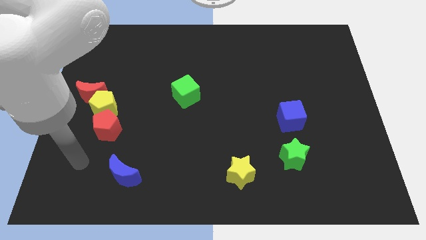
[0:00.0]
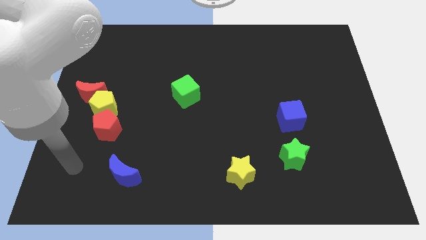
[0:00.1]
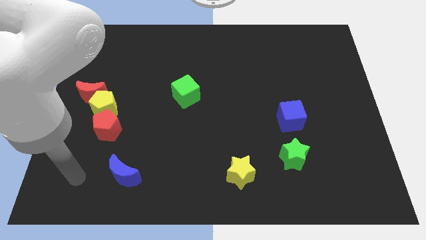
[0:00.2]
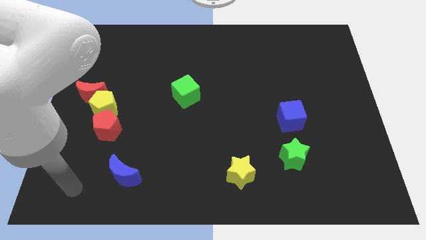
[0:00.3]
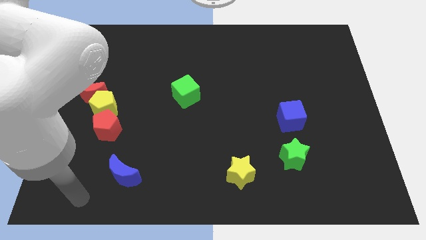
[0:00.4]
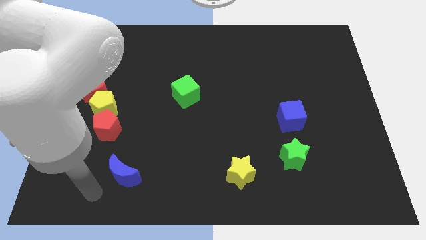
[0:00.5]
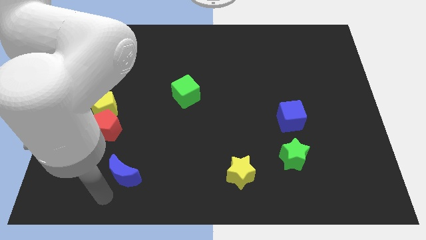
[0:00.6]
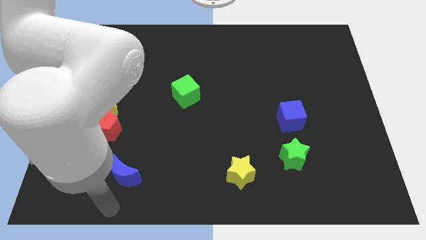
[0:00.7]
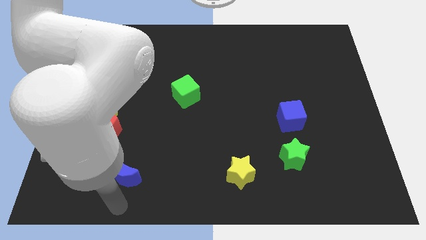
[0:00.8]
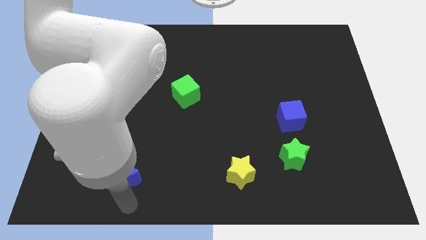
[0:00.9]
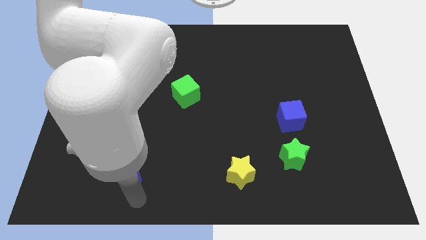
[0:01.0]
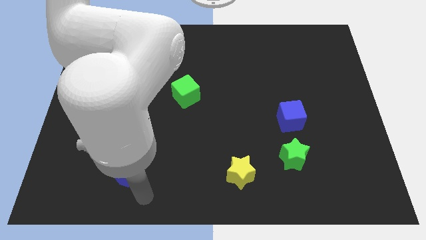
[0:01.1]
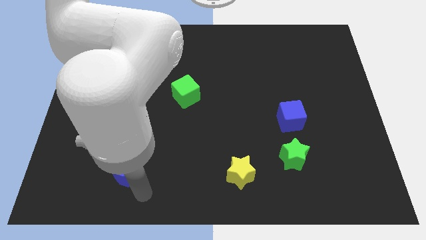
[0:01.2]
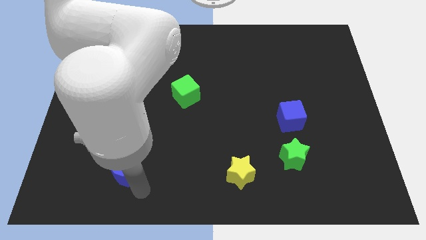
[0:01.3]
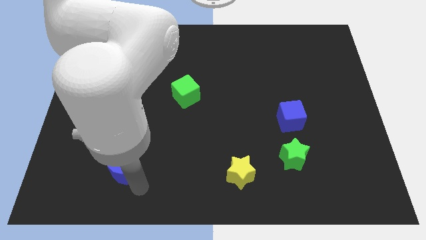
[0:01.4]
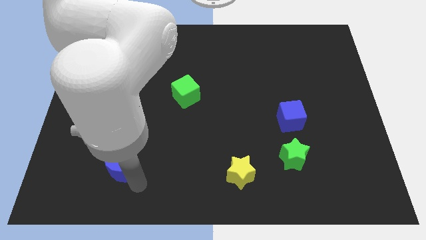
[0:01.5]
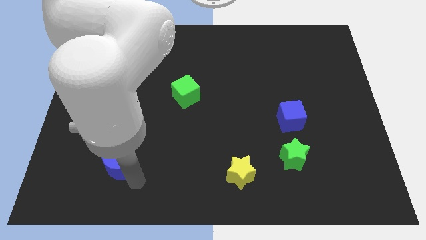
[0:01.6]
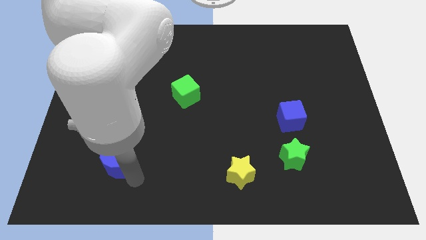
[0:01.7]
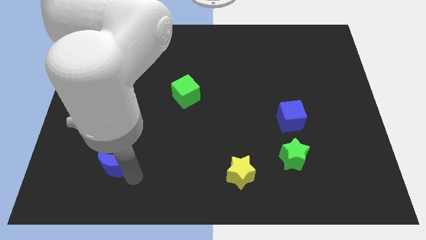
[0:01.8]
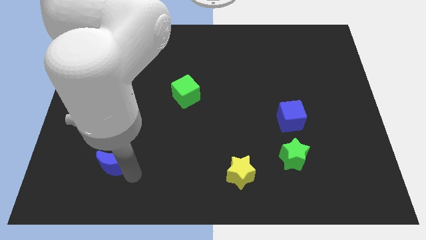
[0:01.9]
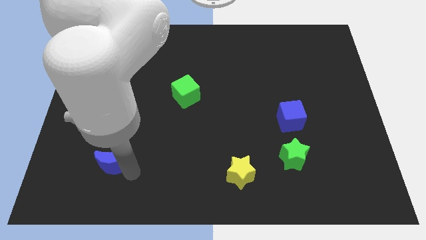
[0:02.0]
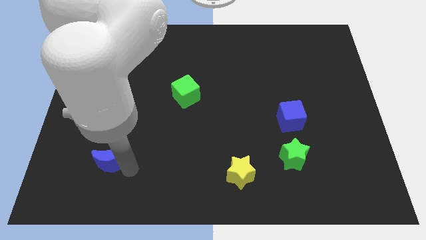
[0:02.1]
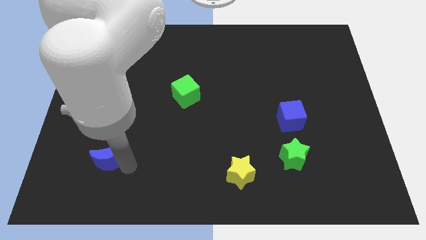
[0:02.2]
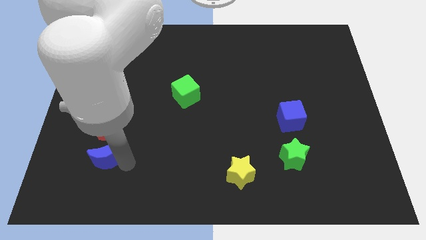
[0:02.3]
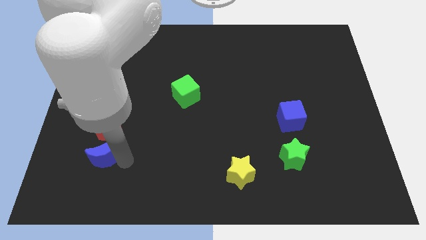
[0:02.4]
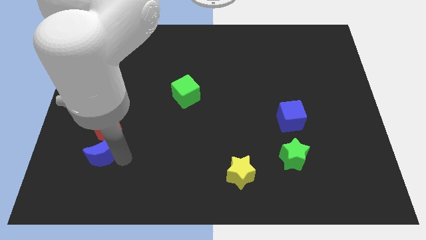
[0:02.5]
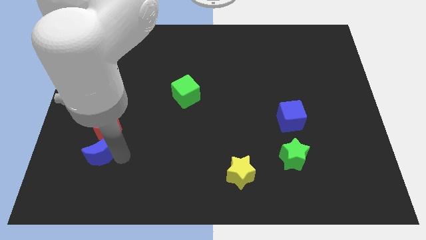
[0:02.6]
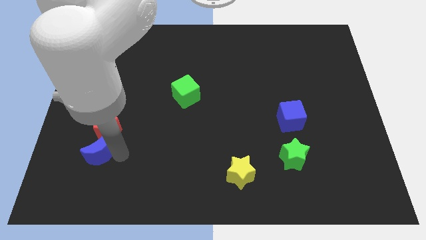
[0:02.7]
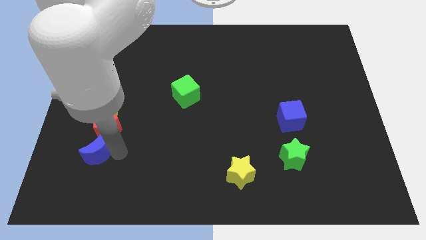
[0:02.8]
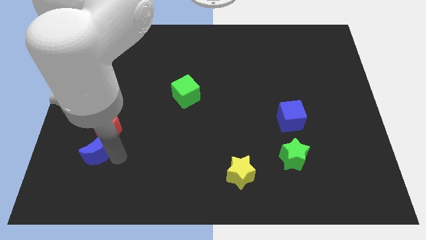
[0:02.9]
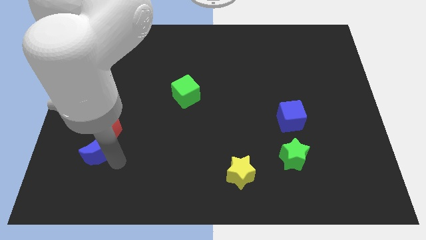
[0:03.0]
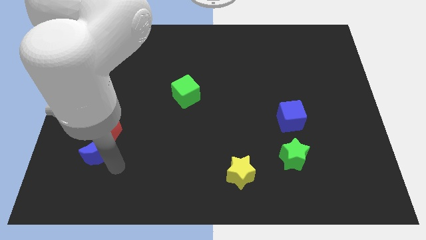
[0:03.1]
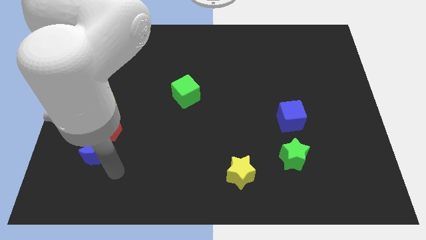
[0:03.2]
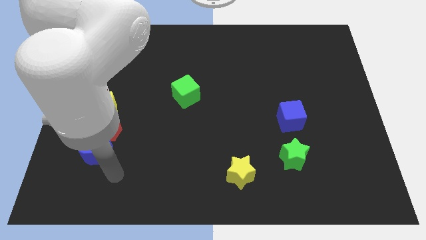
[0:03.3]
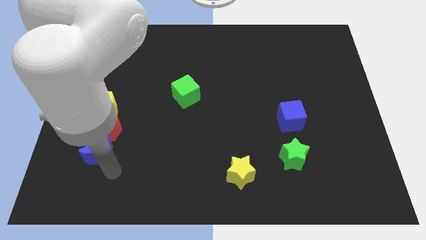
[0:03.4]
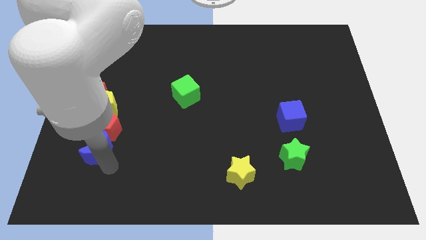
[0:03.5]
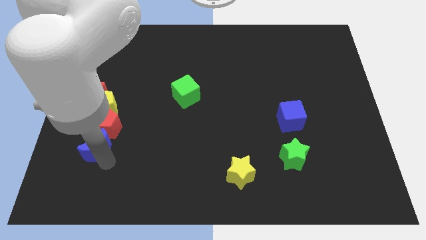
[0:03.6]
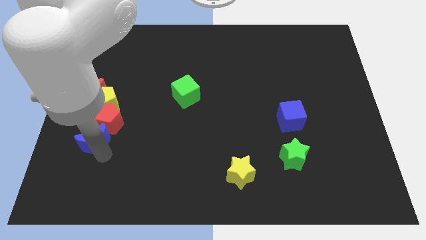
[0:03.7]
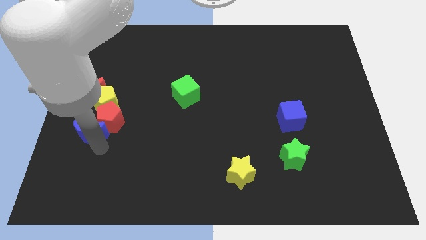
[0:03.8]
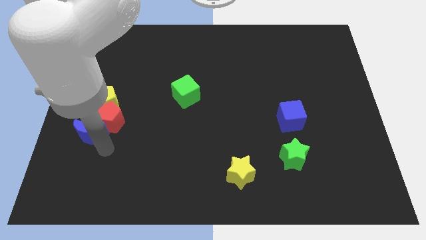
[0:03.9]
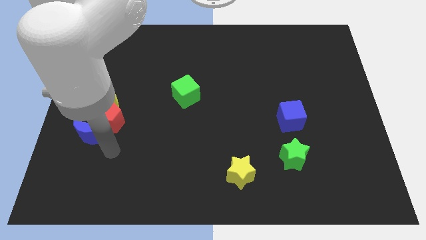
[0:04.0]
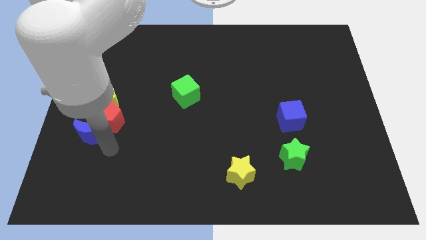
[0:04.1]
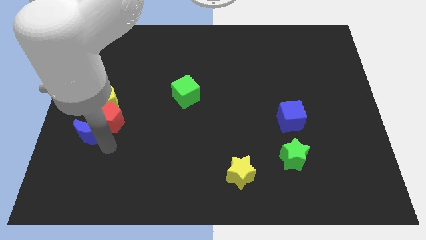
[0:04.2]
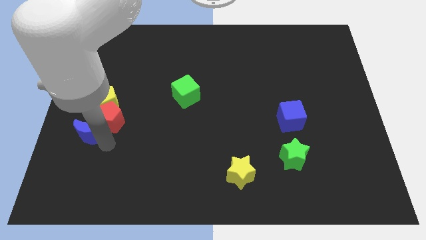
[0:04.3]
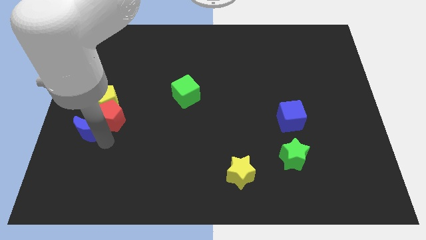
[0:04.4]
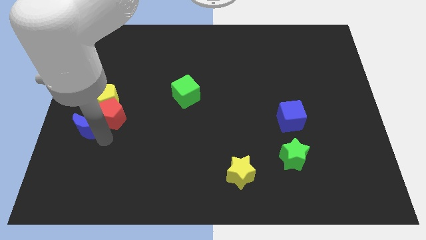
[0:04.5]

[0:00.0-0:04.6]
slide the blue moon to the left side of the board

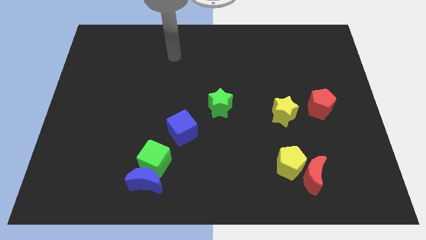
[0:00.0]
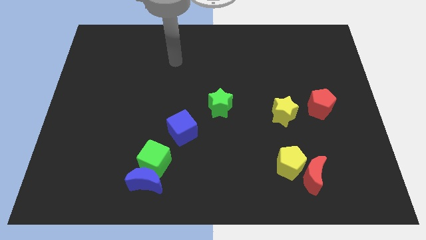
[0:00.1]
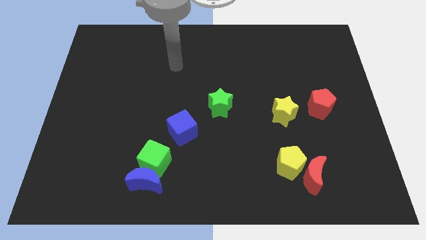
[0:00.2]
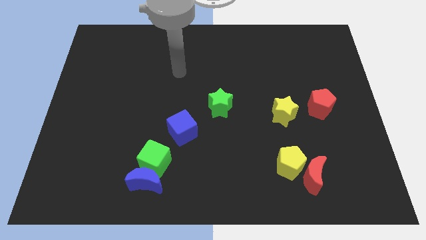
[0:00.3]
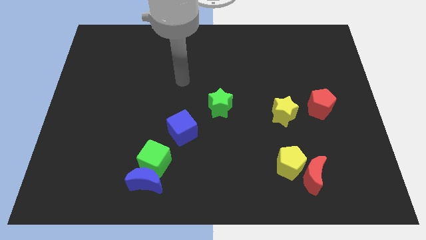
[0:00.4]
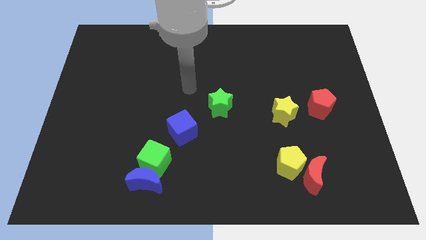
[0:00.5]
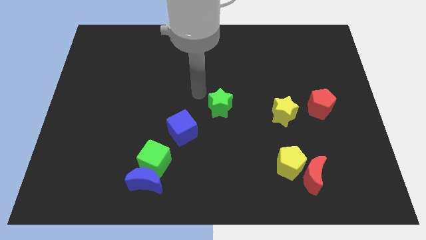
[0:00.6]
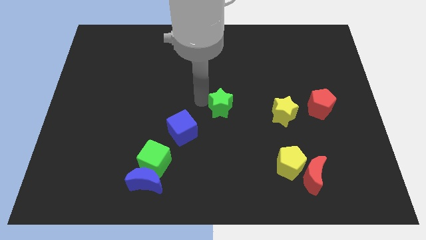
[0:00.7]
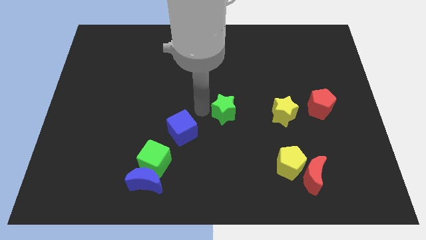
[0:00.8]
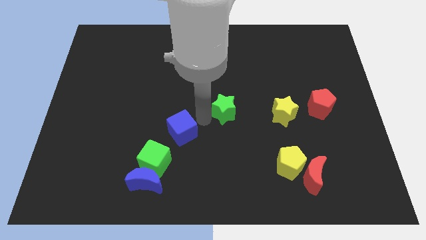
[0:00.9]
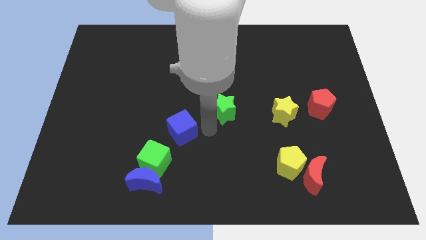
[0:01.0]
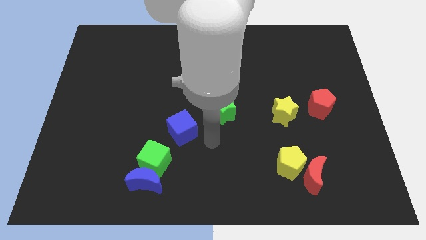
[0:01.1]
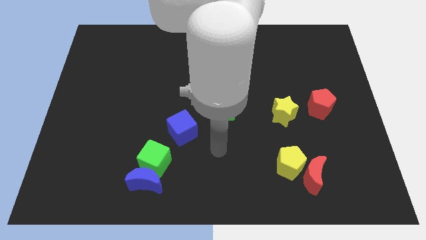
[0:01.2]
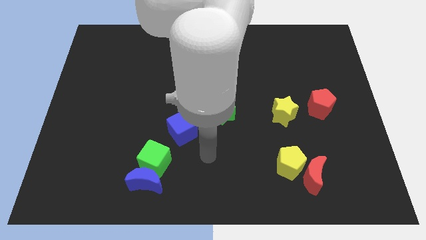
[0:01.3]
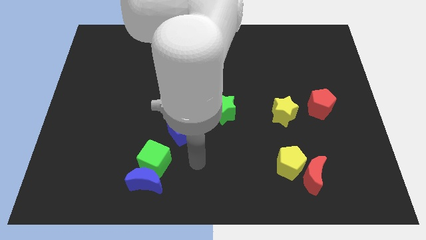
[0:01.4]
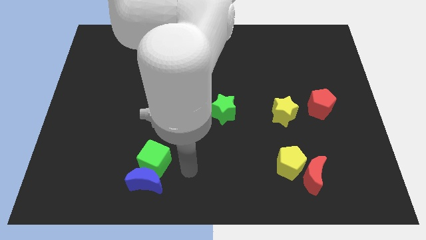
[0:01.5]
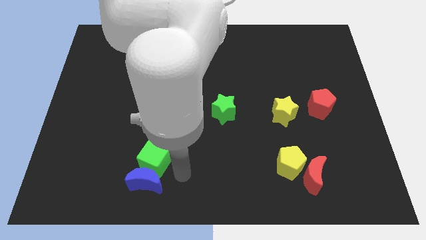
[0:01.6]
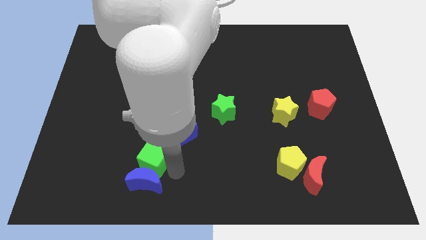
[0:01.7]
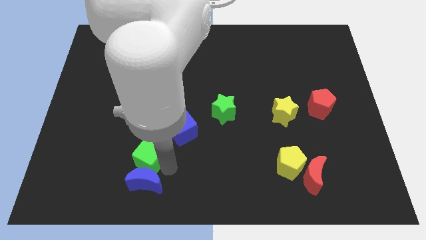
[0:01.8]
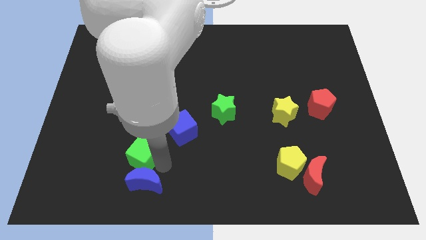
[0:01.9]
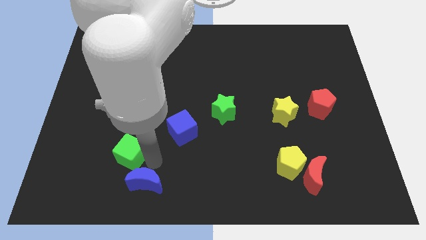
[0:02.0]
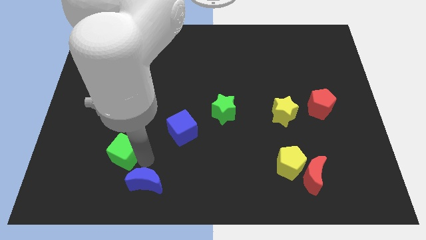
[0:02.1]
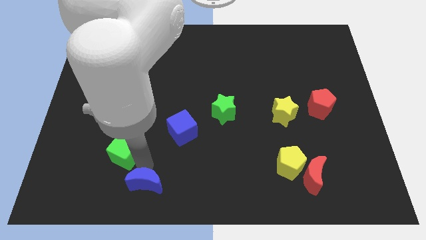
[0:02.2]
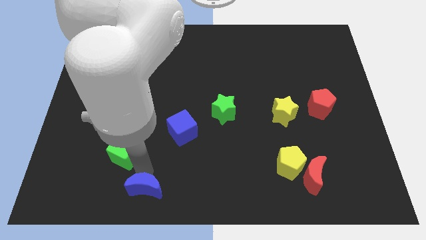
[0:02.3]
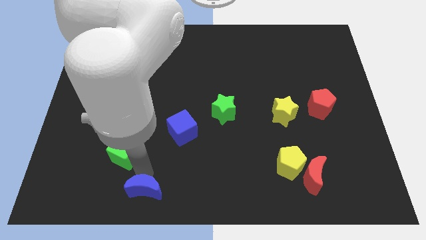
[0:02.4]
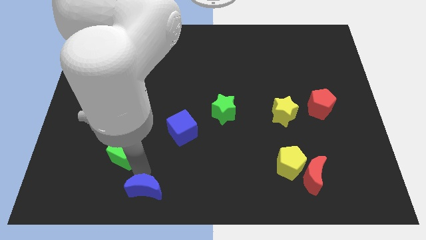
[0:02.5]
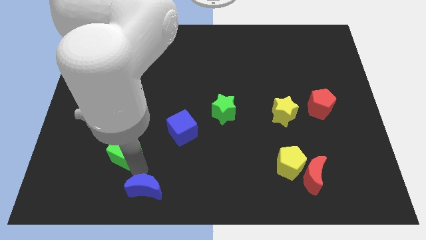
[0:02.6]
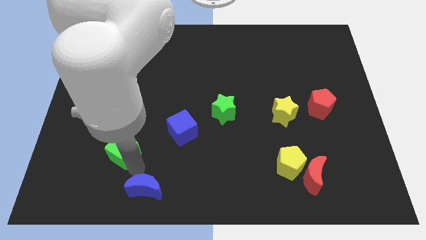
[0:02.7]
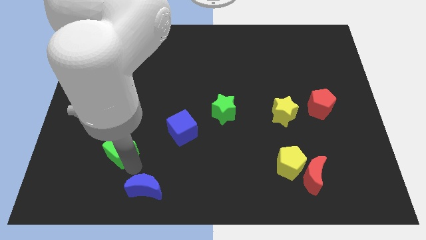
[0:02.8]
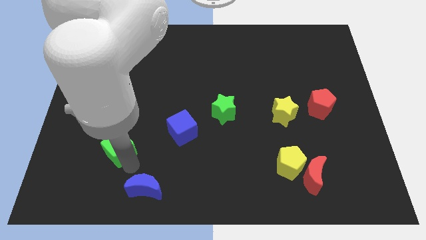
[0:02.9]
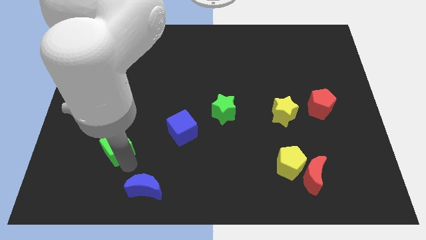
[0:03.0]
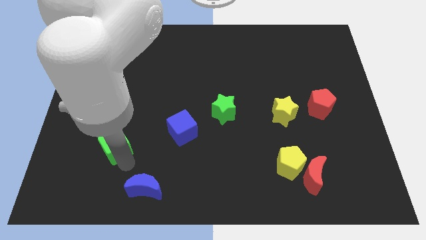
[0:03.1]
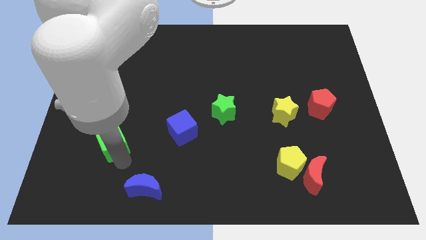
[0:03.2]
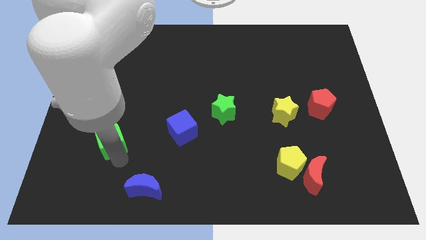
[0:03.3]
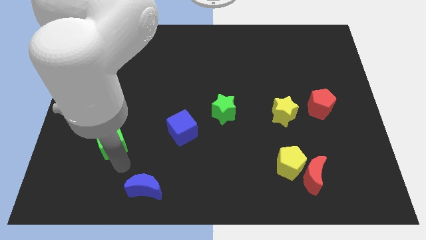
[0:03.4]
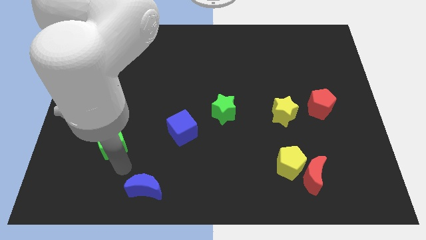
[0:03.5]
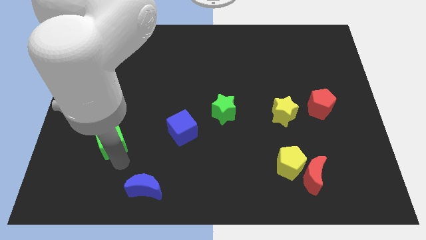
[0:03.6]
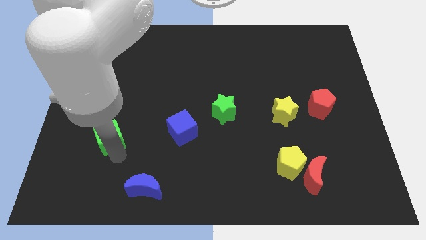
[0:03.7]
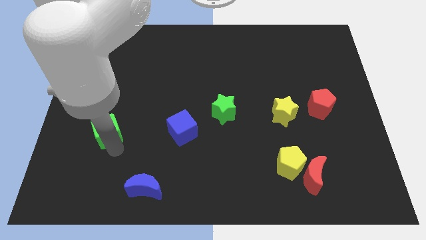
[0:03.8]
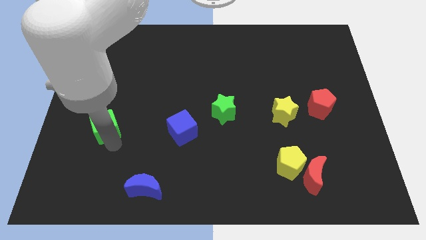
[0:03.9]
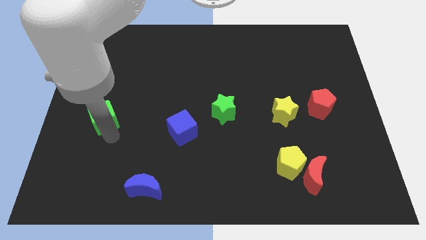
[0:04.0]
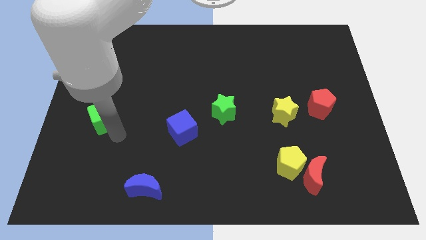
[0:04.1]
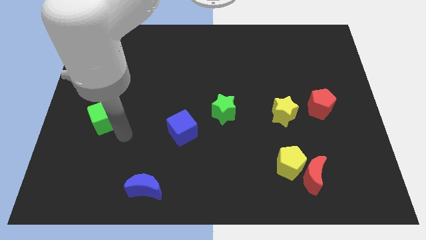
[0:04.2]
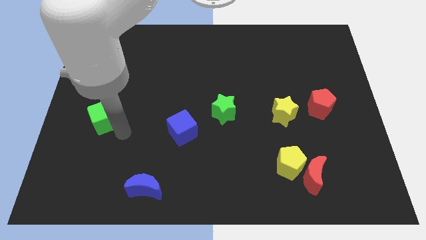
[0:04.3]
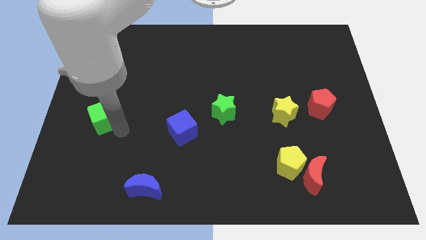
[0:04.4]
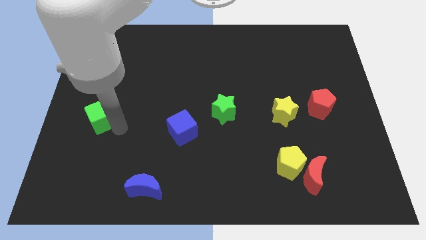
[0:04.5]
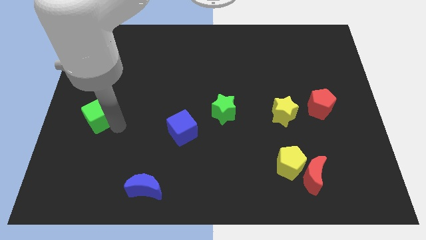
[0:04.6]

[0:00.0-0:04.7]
push the green cube to the center left
